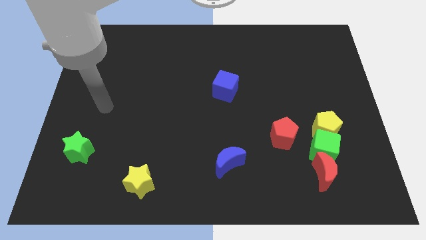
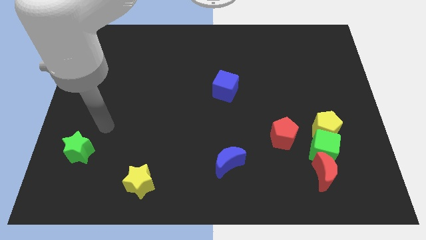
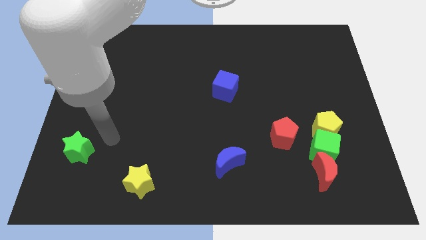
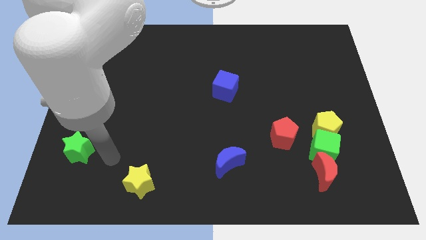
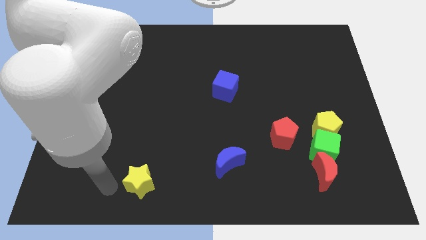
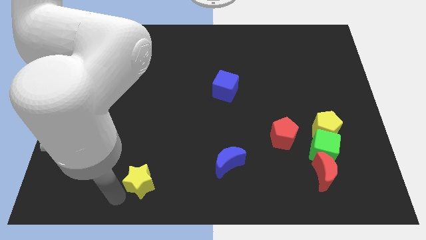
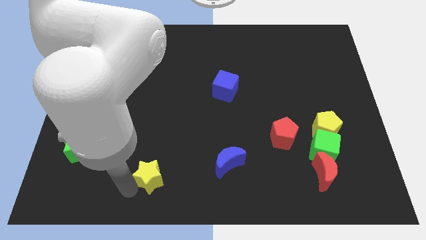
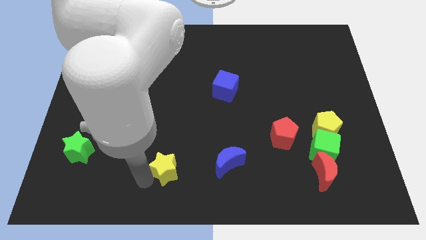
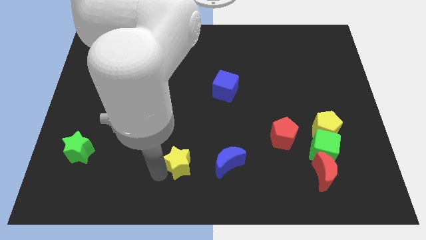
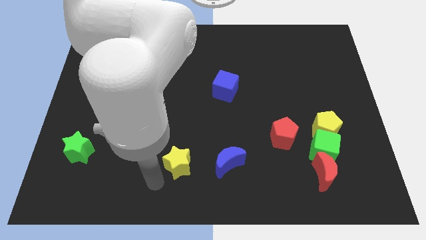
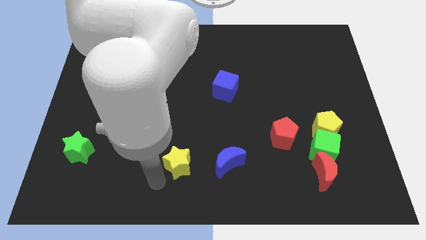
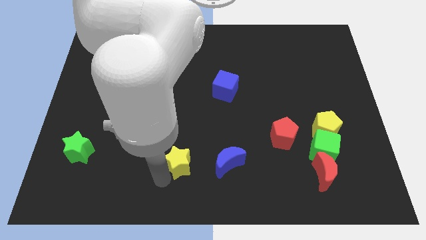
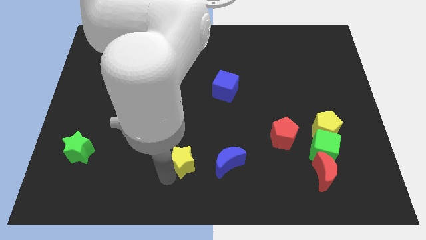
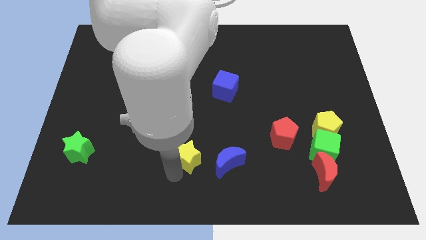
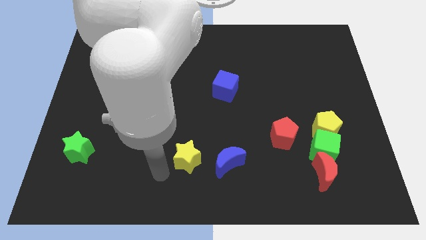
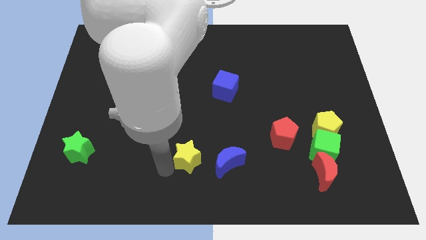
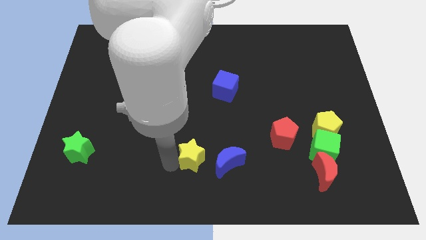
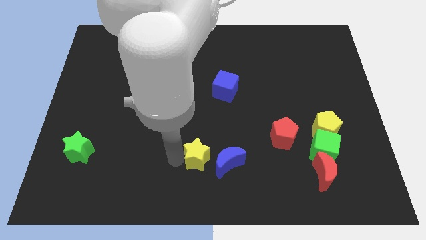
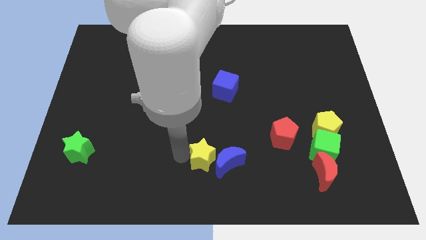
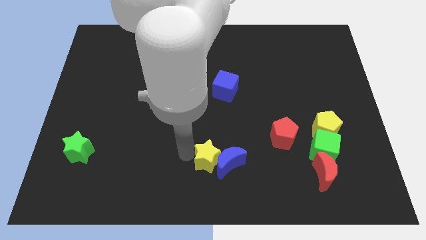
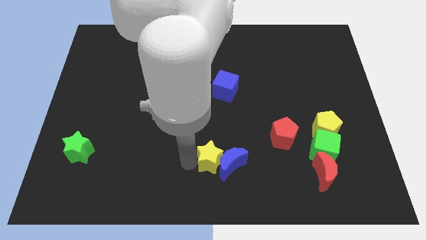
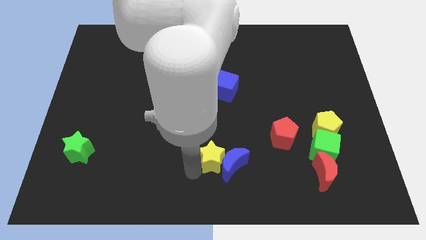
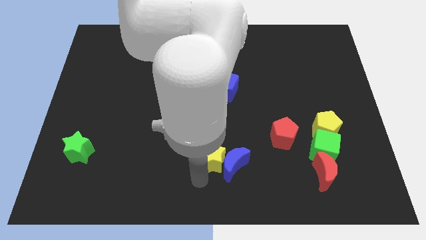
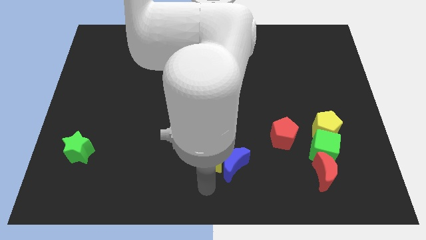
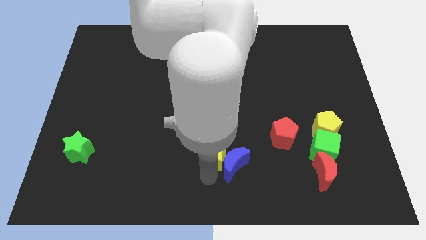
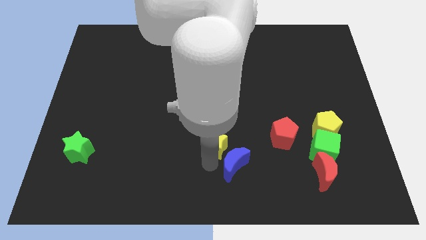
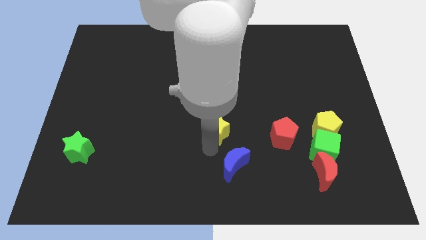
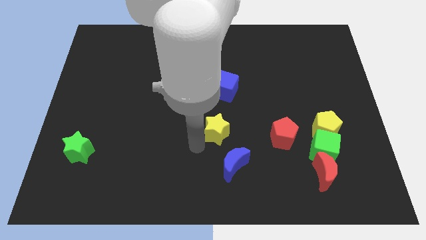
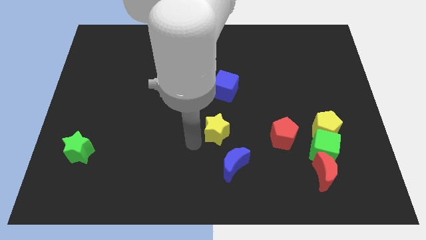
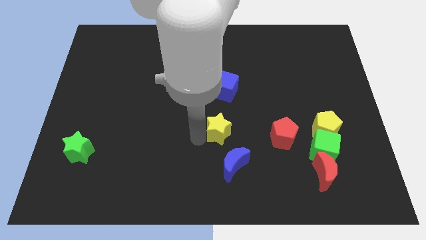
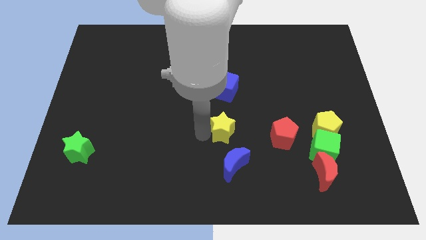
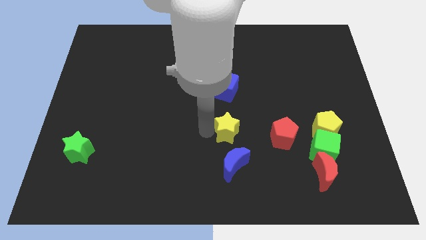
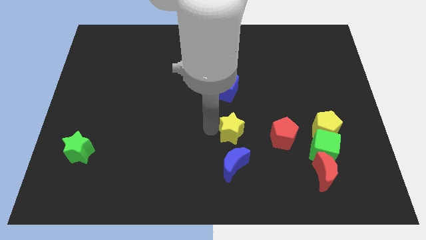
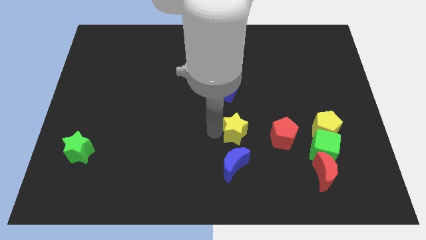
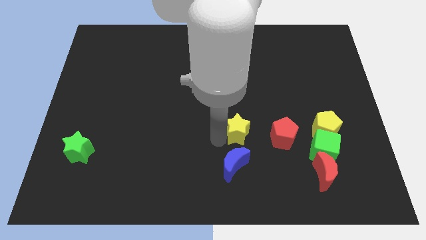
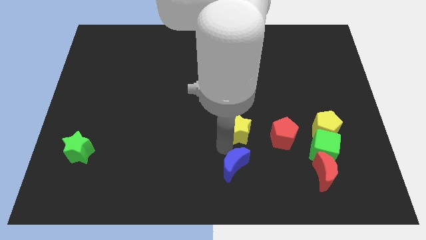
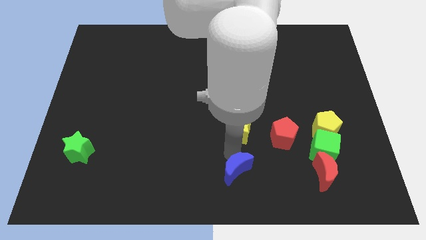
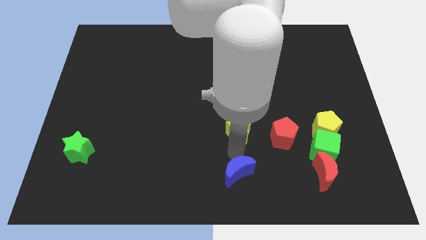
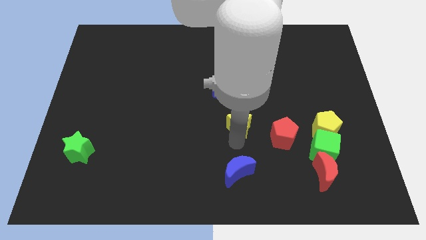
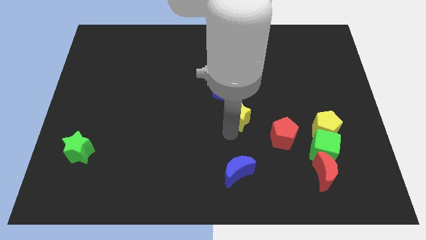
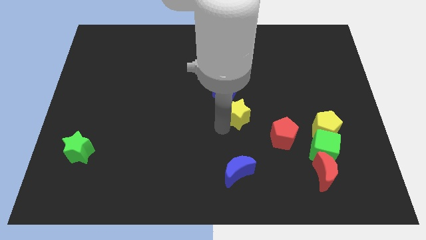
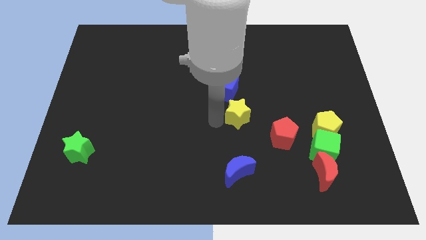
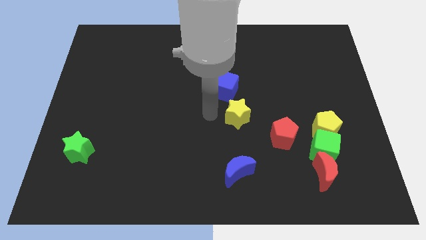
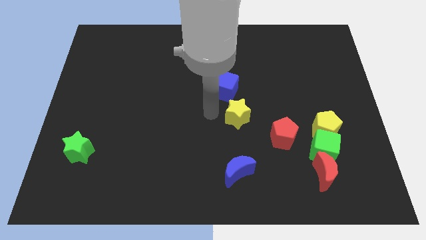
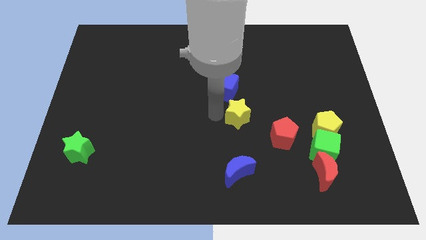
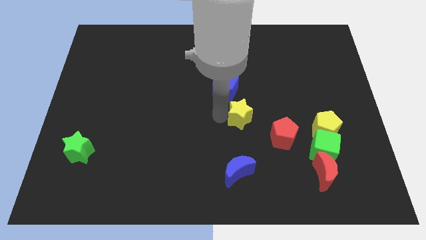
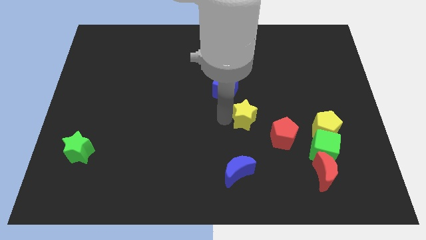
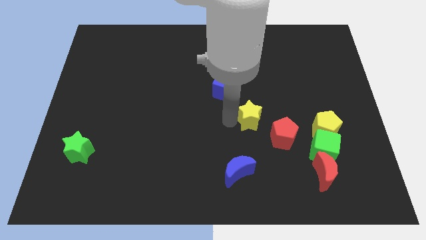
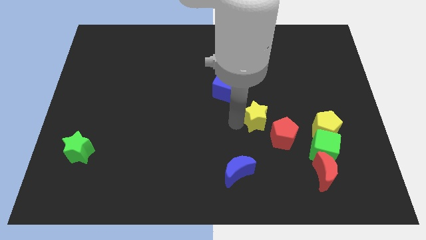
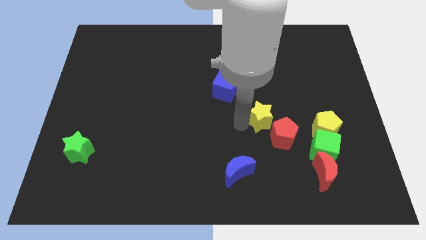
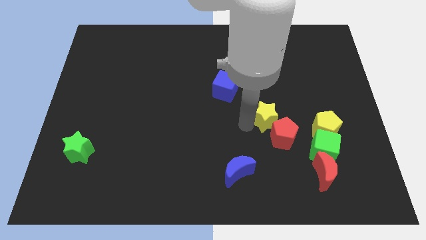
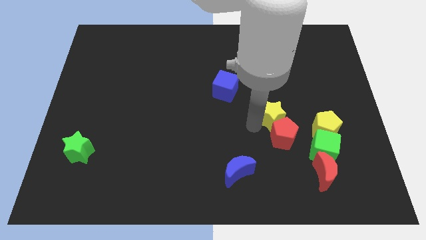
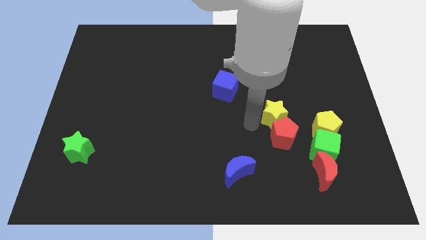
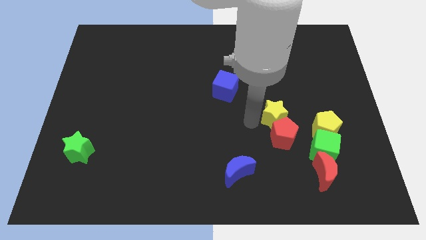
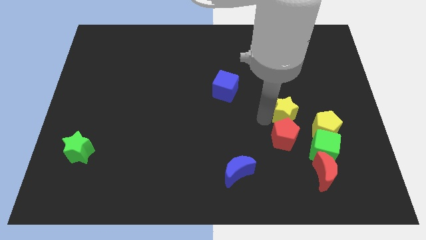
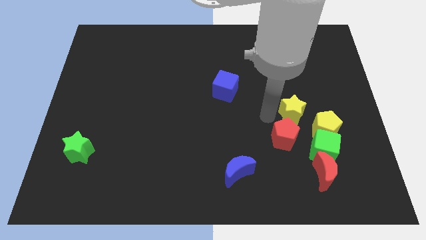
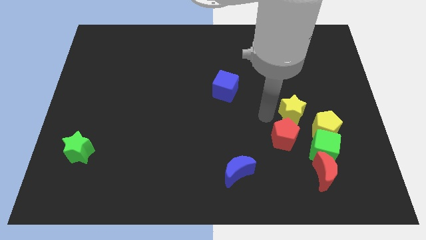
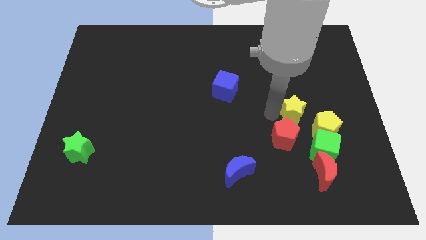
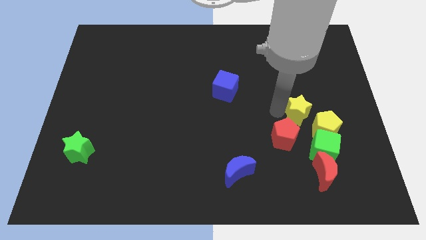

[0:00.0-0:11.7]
slide the yellow star above the green cube

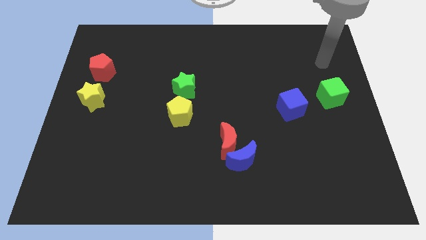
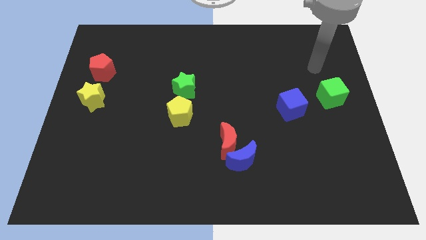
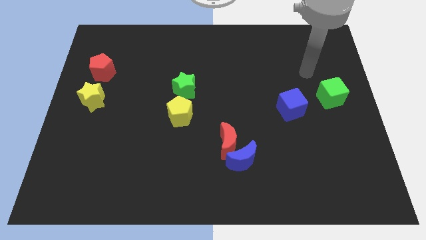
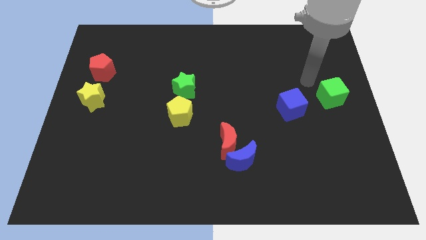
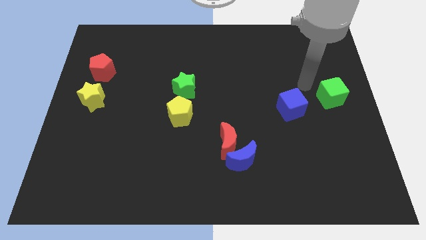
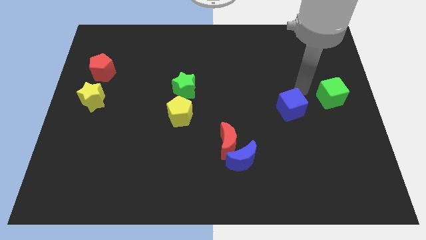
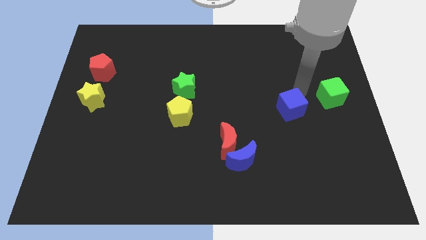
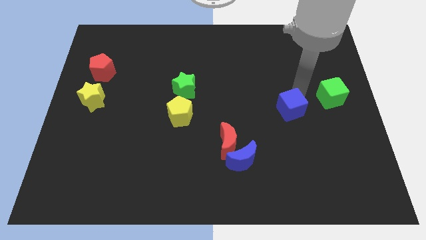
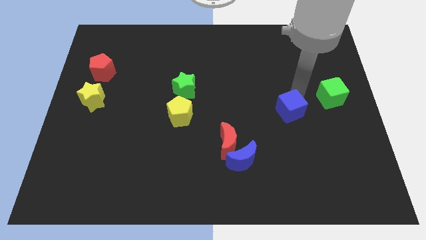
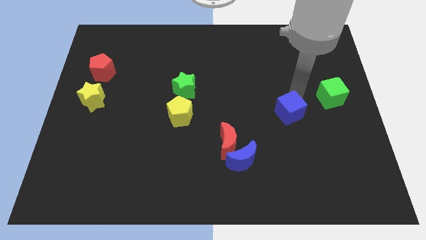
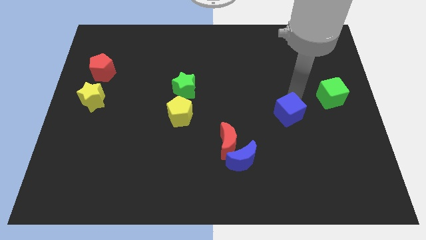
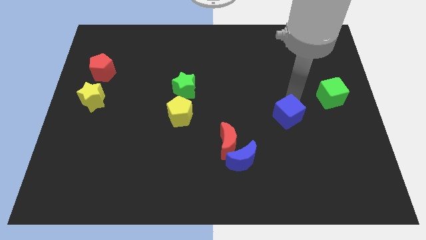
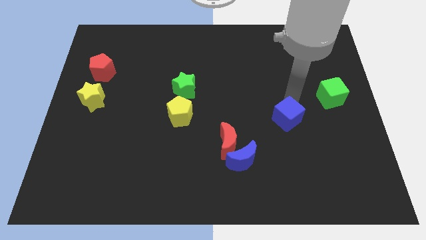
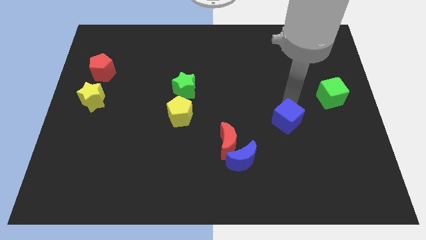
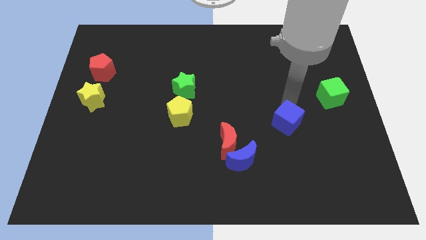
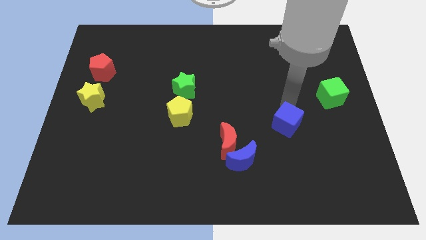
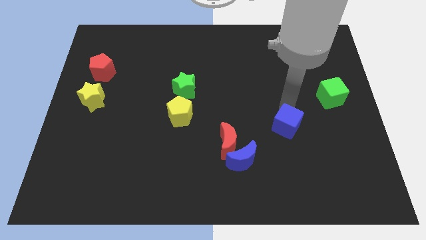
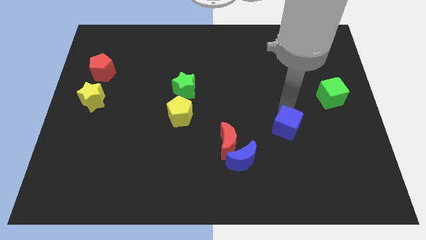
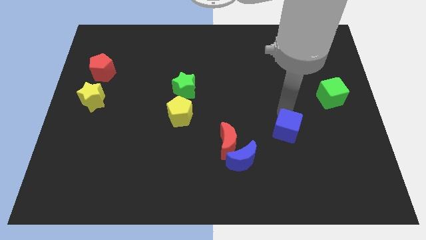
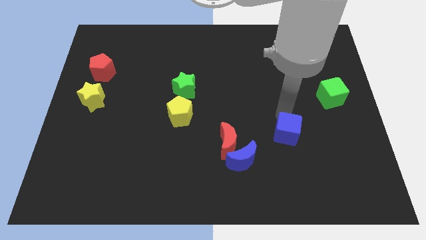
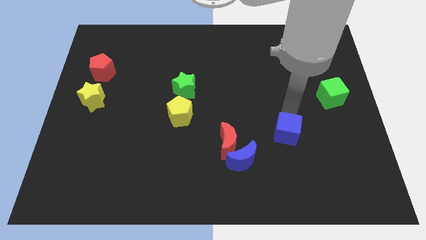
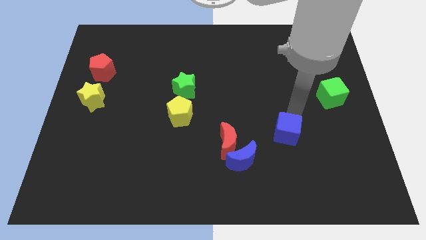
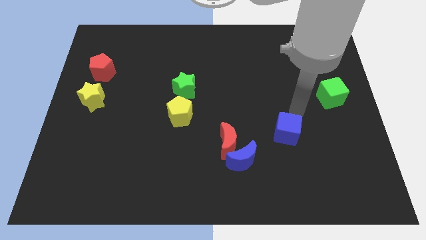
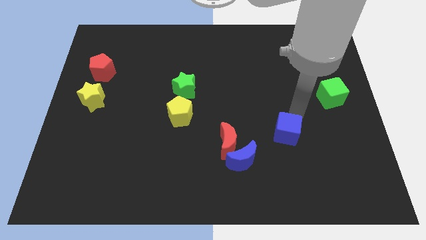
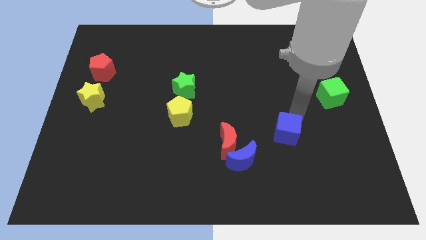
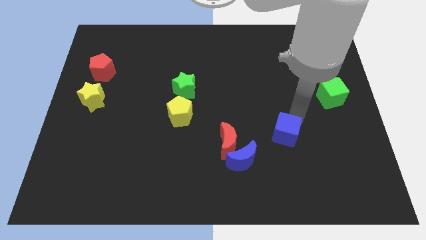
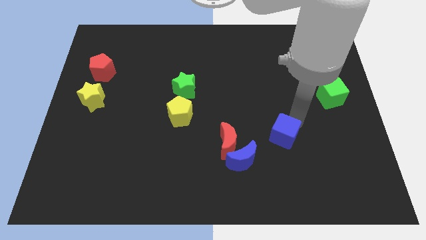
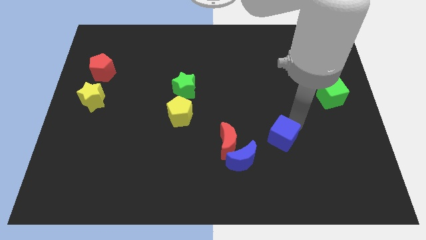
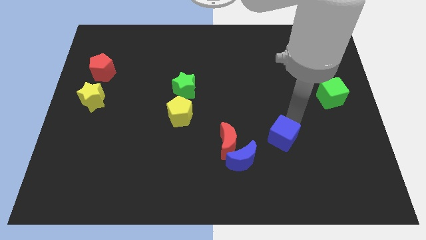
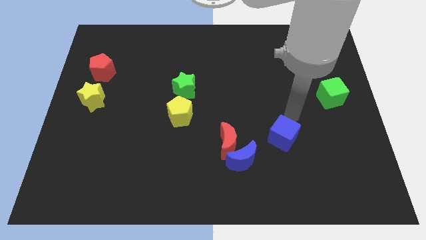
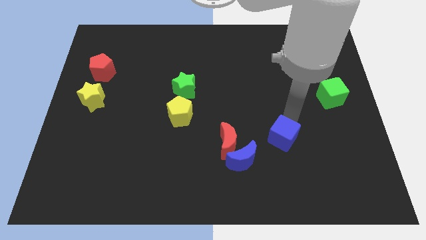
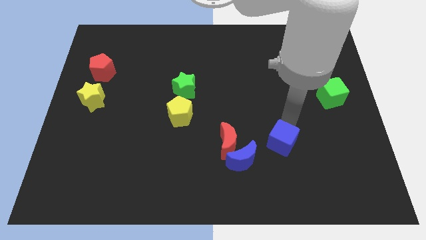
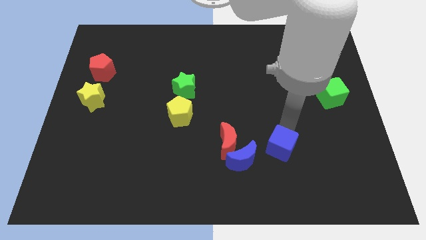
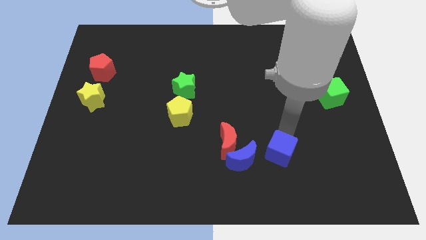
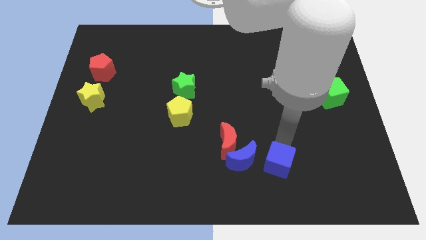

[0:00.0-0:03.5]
slide the blue cube to the bottom right side of the blue moon
